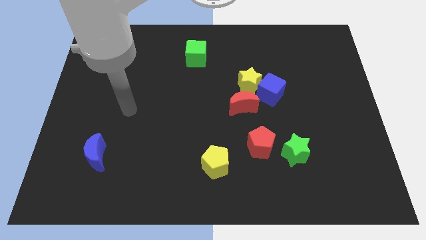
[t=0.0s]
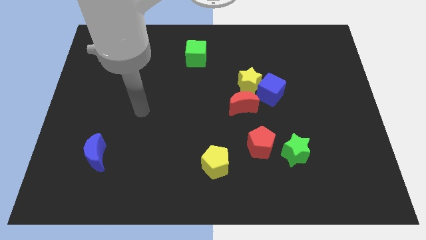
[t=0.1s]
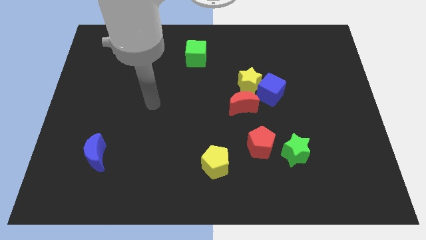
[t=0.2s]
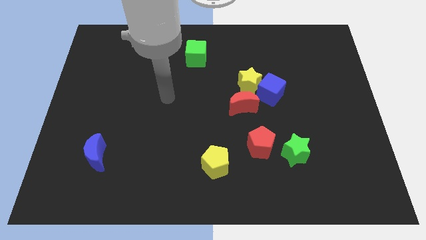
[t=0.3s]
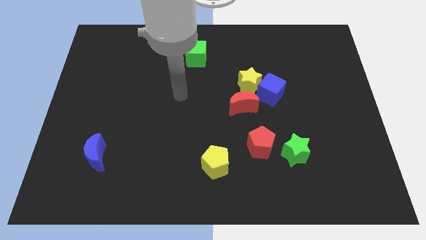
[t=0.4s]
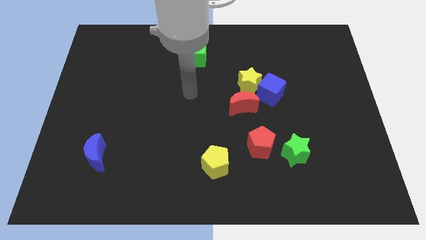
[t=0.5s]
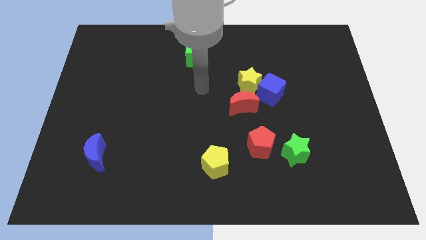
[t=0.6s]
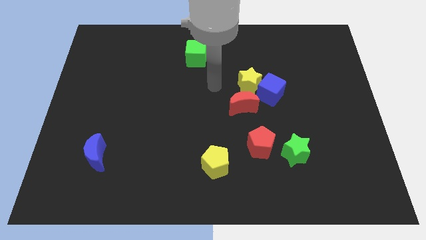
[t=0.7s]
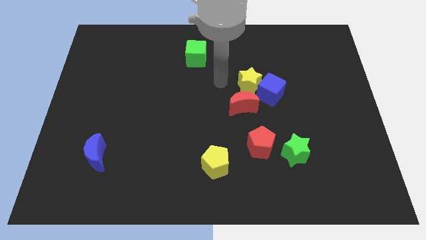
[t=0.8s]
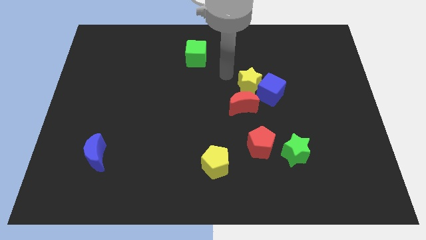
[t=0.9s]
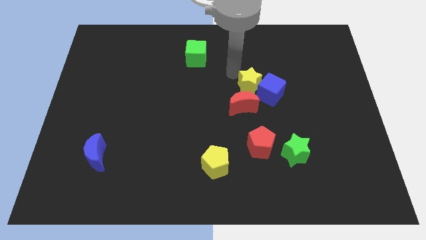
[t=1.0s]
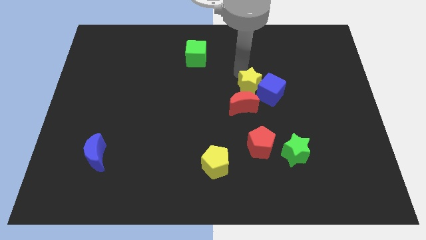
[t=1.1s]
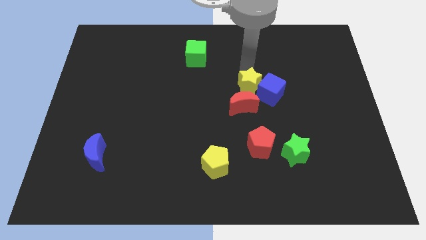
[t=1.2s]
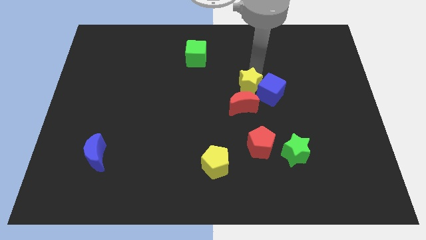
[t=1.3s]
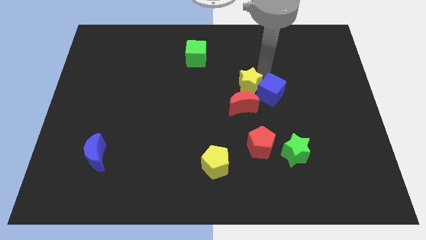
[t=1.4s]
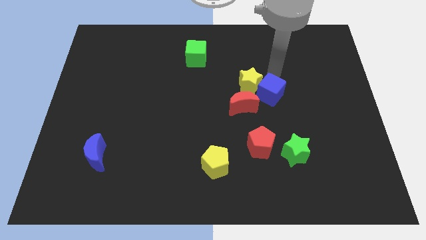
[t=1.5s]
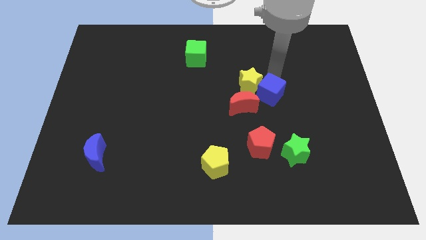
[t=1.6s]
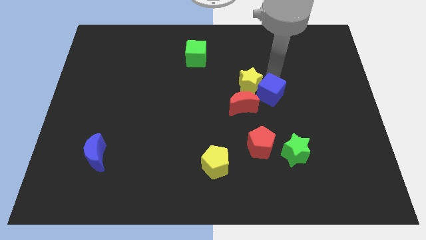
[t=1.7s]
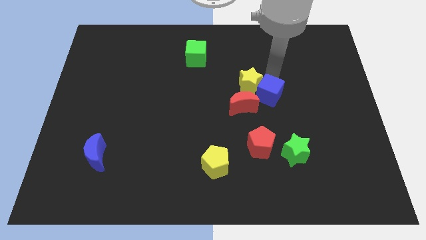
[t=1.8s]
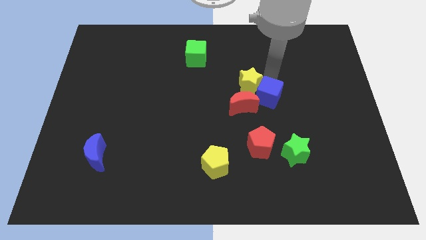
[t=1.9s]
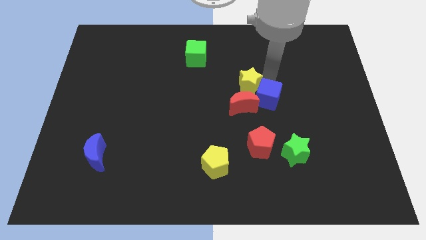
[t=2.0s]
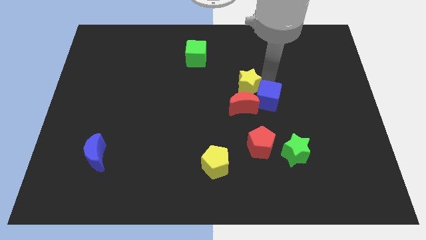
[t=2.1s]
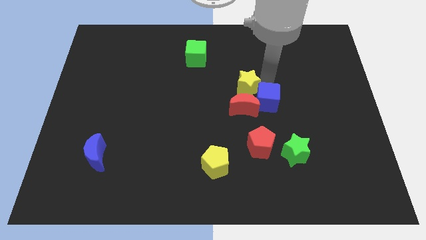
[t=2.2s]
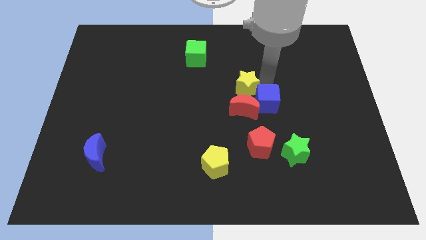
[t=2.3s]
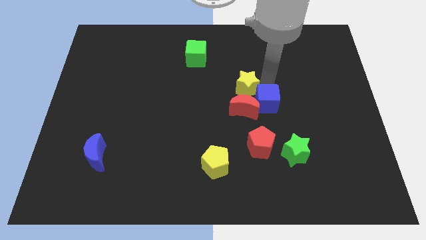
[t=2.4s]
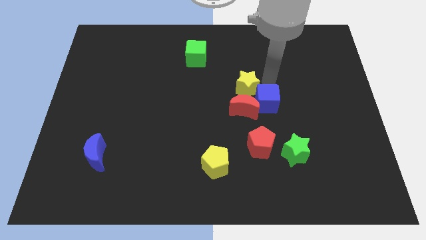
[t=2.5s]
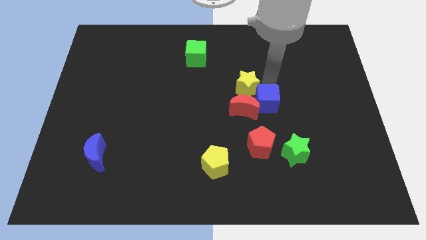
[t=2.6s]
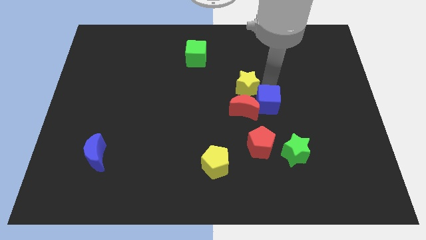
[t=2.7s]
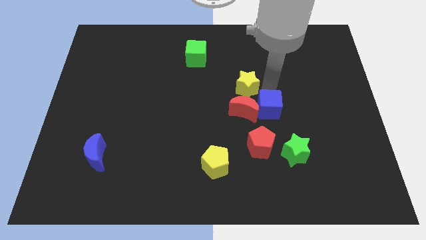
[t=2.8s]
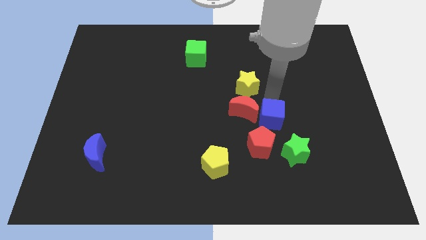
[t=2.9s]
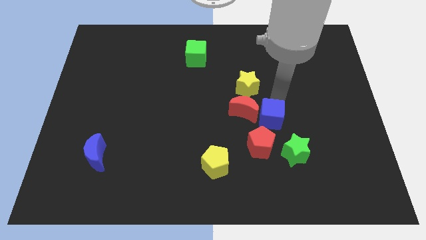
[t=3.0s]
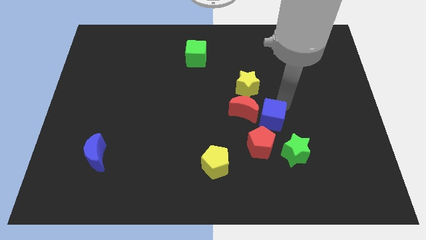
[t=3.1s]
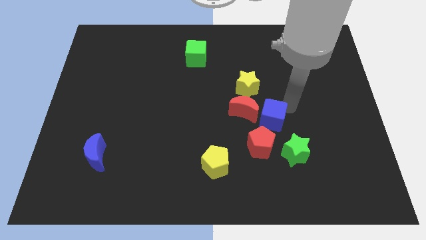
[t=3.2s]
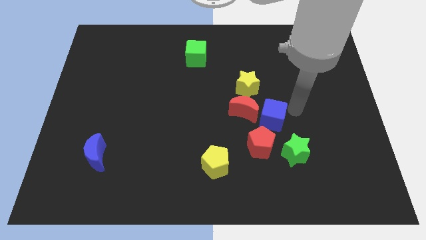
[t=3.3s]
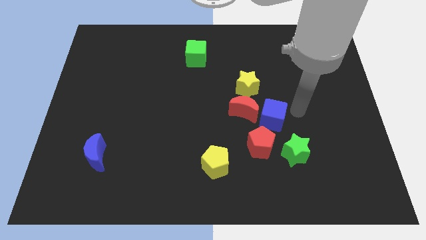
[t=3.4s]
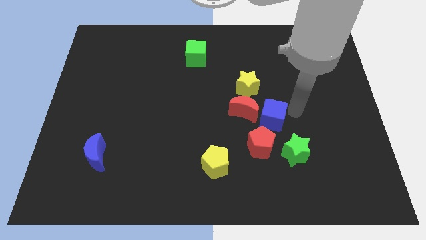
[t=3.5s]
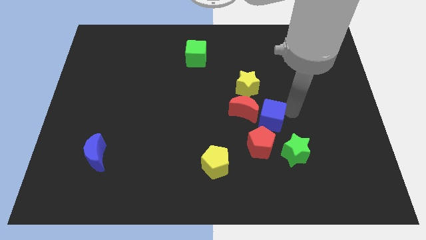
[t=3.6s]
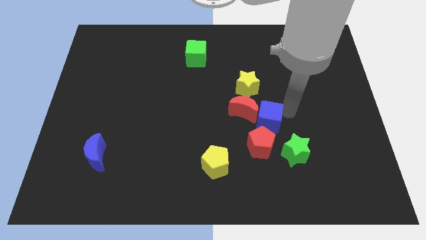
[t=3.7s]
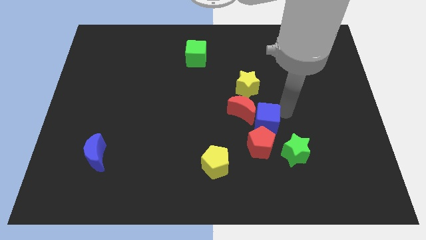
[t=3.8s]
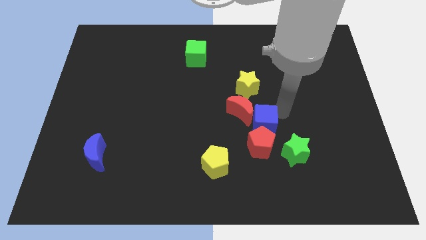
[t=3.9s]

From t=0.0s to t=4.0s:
slide the blue cube slightly down and left diagonally

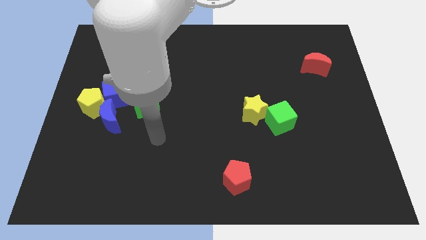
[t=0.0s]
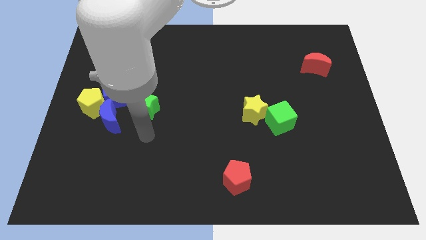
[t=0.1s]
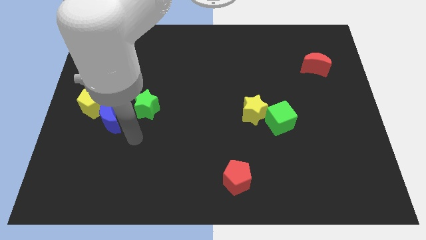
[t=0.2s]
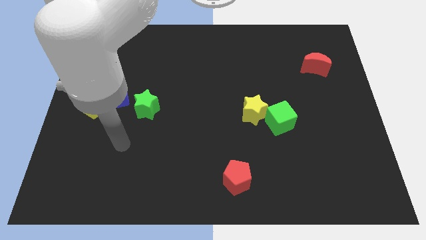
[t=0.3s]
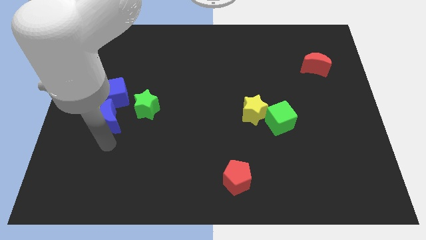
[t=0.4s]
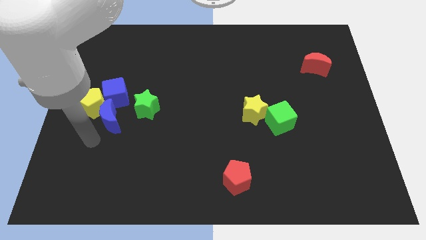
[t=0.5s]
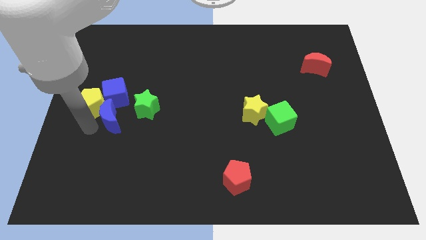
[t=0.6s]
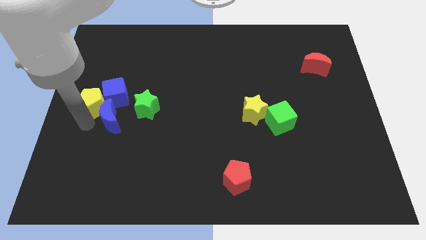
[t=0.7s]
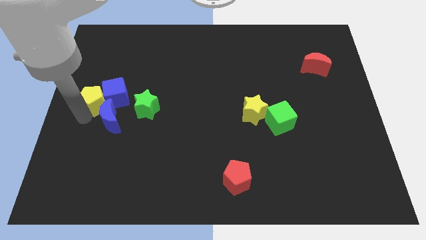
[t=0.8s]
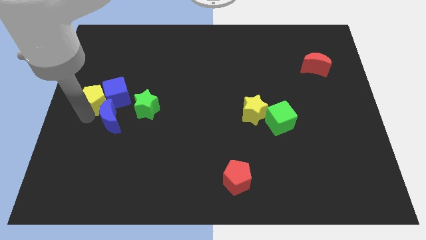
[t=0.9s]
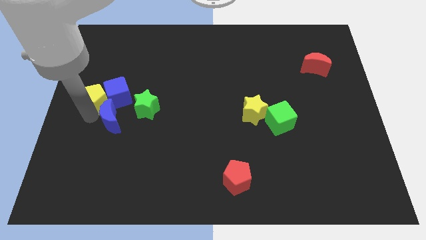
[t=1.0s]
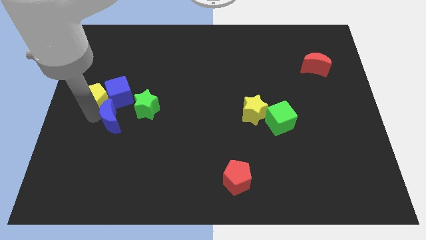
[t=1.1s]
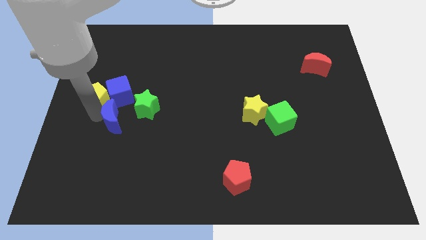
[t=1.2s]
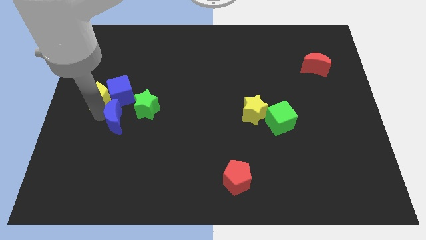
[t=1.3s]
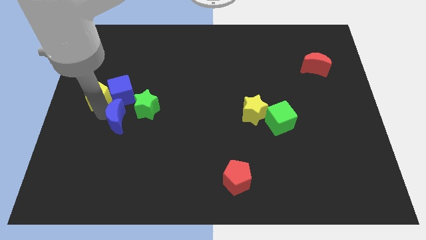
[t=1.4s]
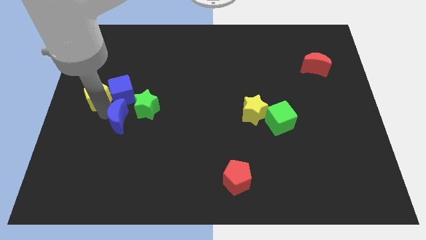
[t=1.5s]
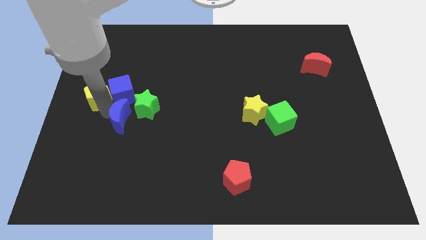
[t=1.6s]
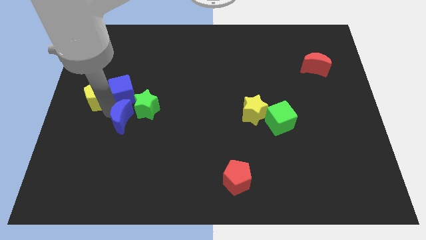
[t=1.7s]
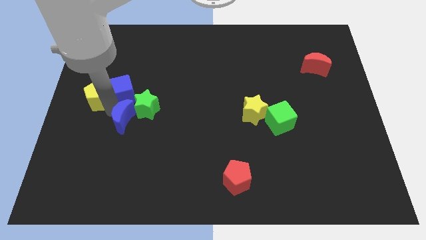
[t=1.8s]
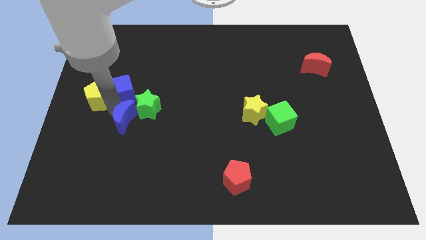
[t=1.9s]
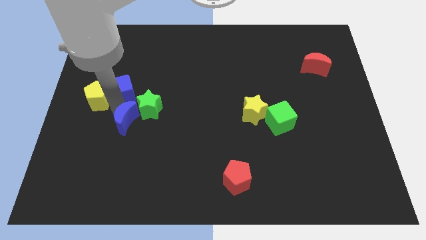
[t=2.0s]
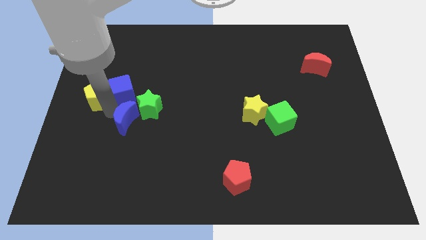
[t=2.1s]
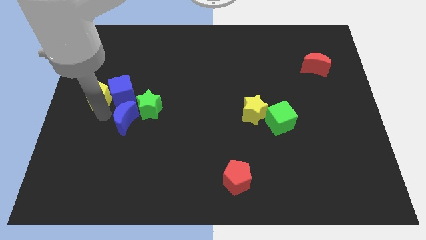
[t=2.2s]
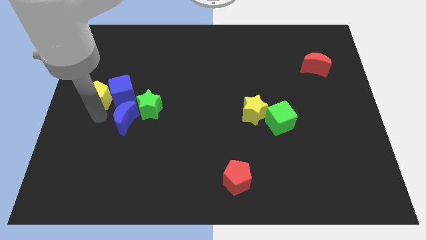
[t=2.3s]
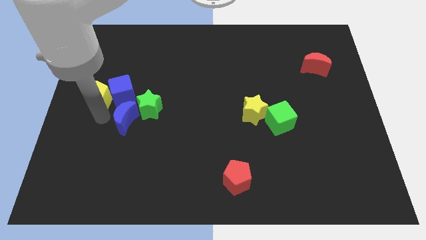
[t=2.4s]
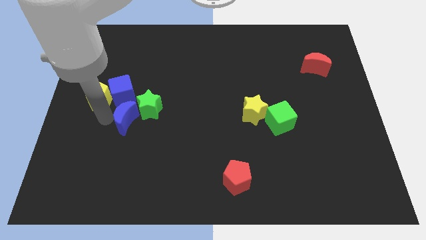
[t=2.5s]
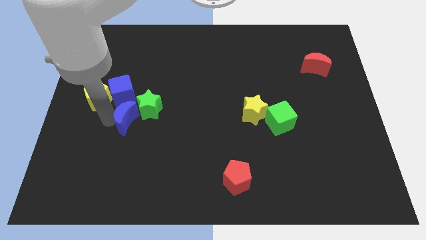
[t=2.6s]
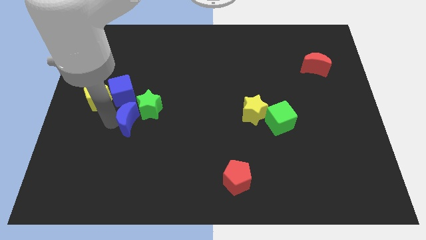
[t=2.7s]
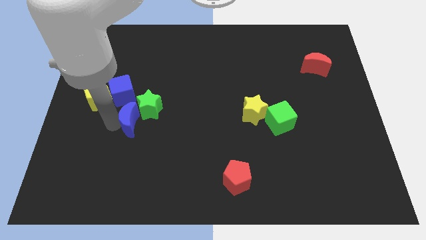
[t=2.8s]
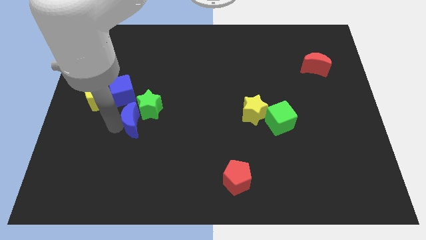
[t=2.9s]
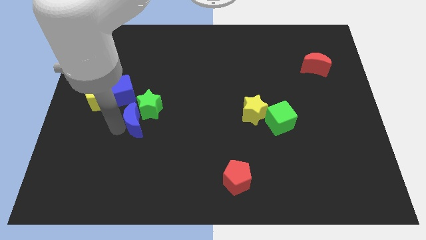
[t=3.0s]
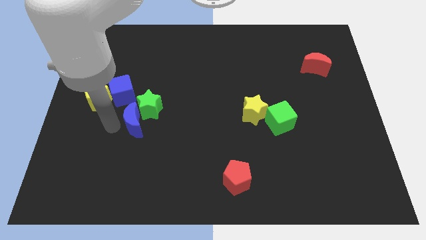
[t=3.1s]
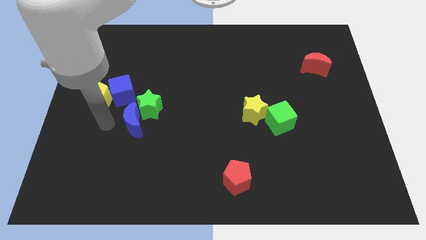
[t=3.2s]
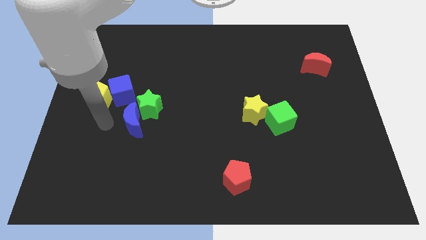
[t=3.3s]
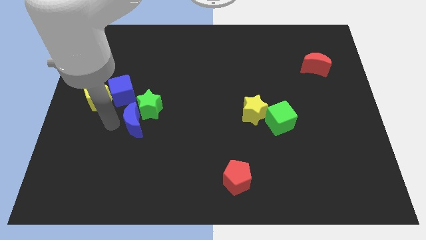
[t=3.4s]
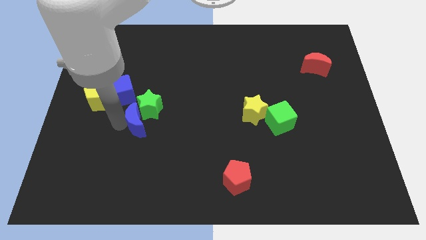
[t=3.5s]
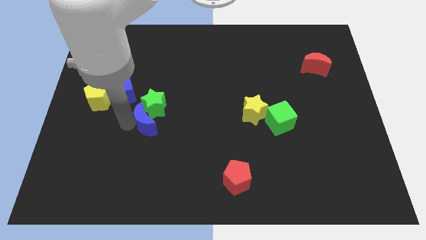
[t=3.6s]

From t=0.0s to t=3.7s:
move the blue moon to the right a bit
